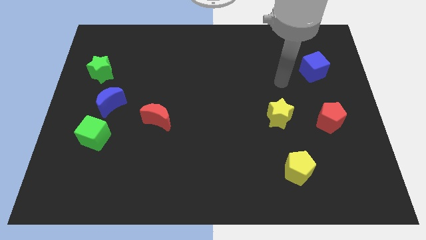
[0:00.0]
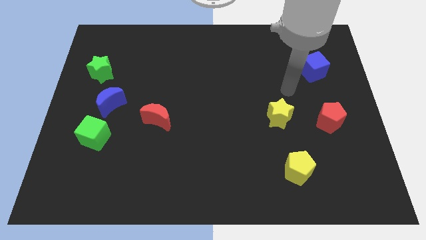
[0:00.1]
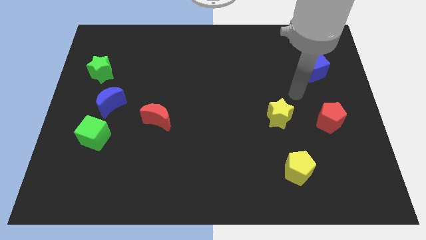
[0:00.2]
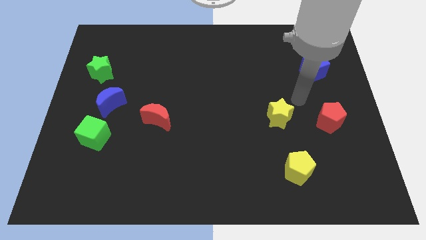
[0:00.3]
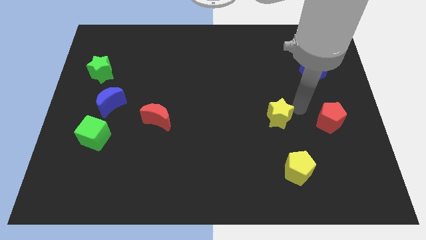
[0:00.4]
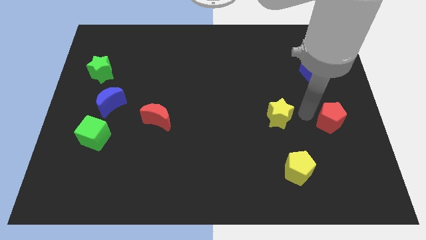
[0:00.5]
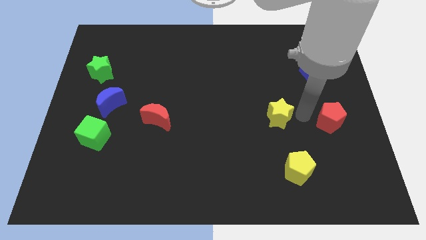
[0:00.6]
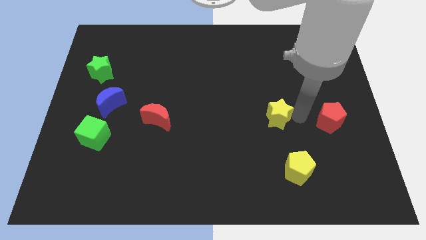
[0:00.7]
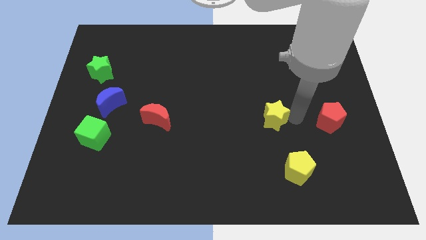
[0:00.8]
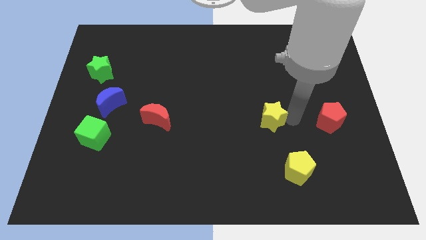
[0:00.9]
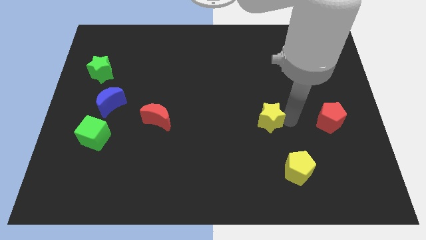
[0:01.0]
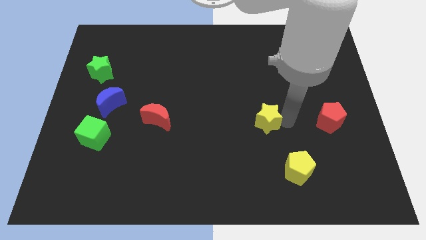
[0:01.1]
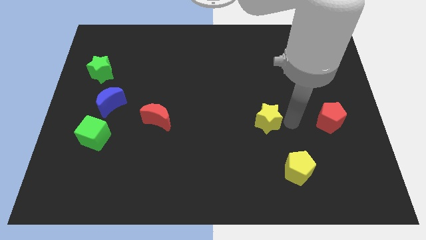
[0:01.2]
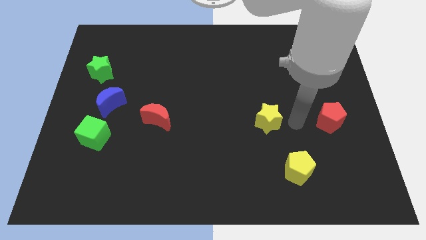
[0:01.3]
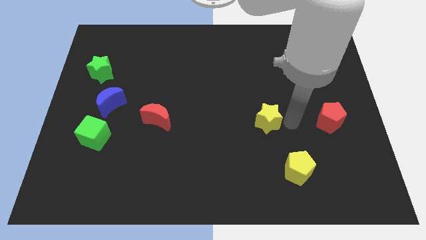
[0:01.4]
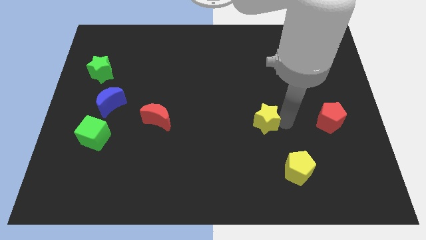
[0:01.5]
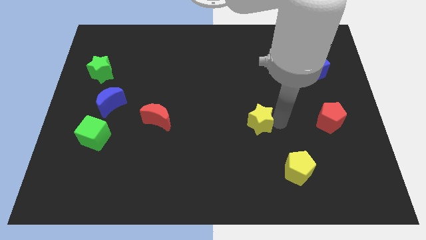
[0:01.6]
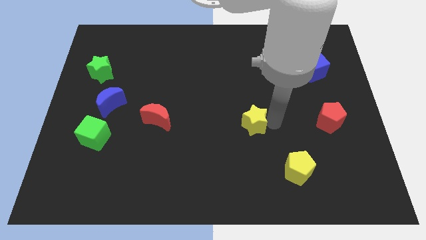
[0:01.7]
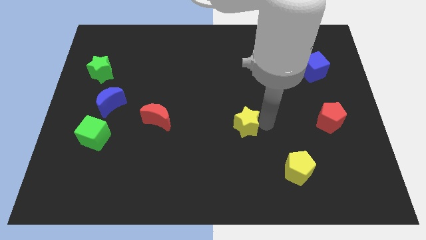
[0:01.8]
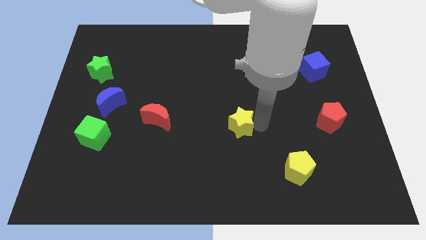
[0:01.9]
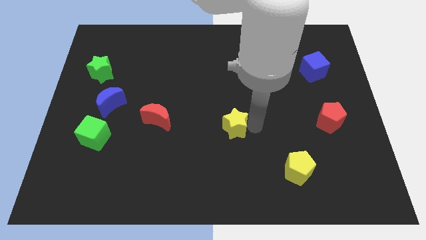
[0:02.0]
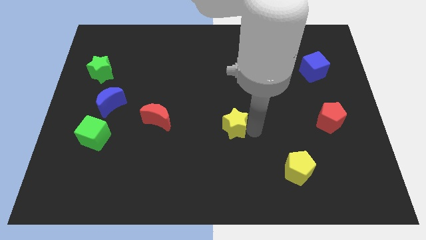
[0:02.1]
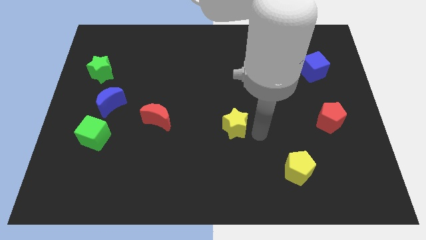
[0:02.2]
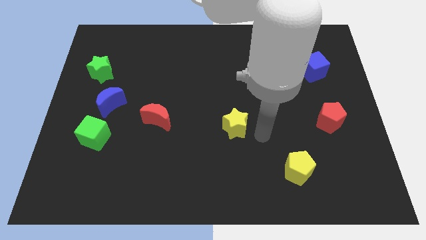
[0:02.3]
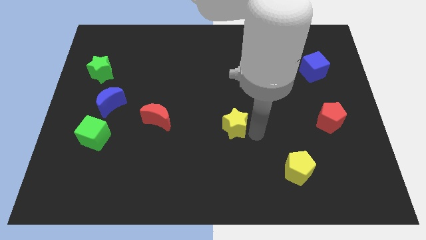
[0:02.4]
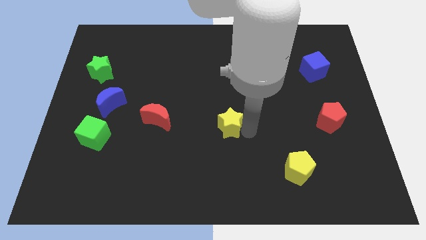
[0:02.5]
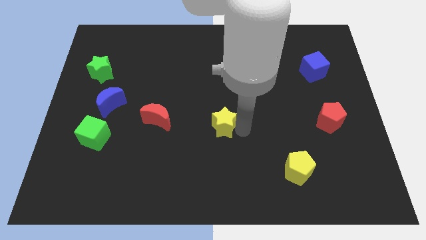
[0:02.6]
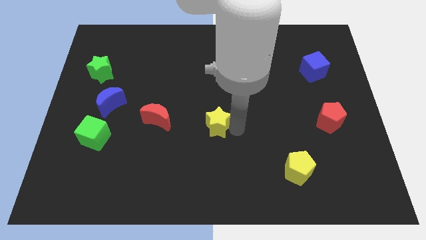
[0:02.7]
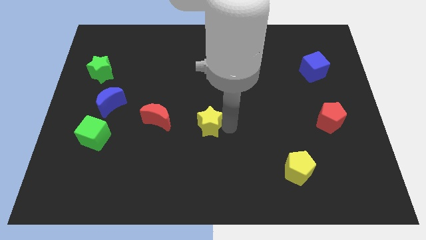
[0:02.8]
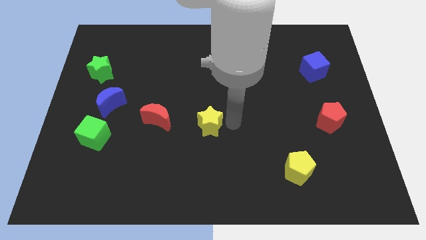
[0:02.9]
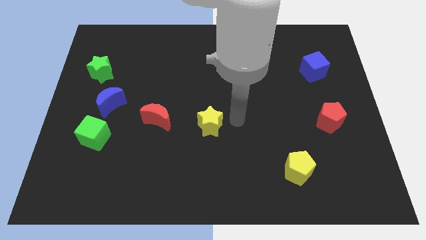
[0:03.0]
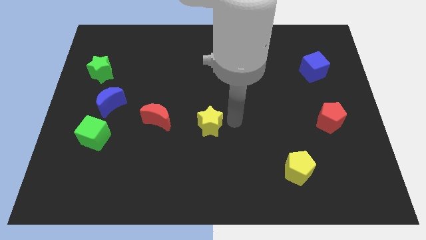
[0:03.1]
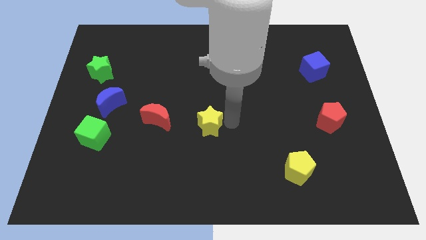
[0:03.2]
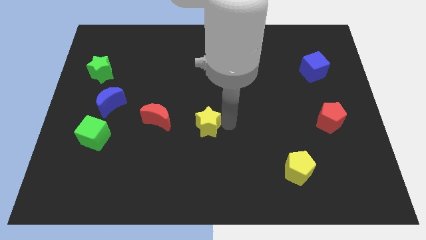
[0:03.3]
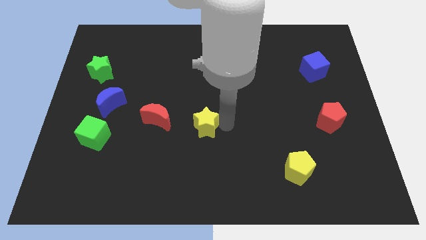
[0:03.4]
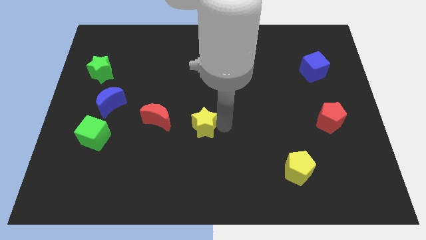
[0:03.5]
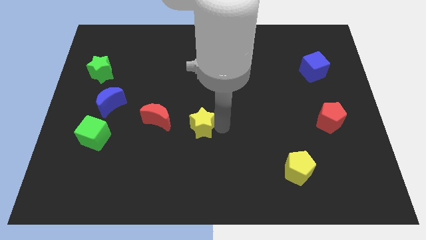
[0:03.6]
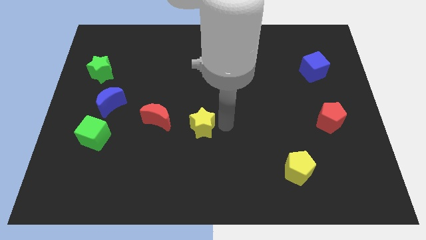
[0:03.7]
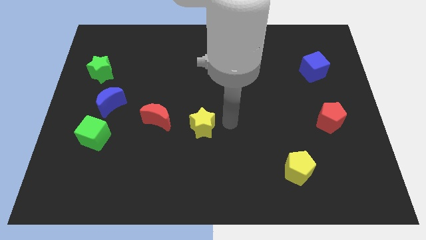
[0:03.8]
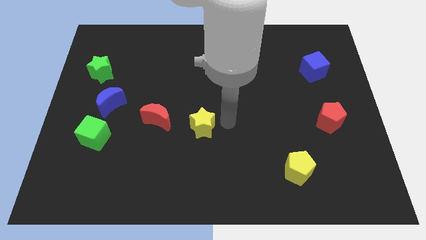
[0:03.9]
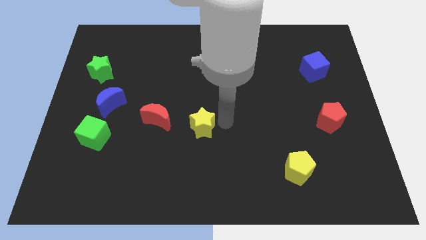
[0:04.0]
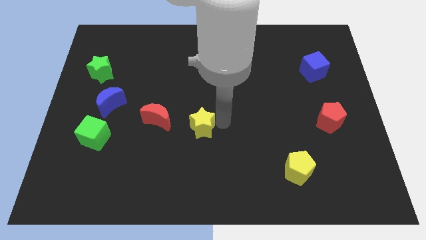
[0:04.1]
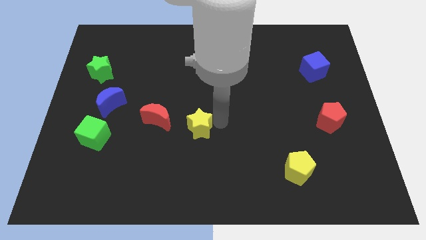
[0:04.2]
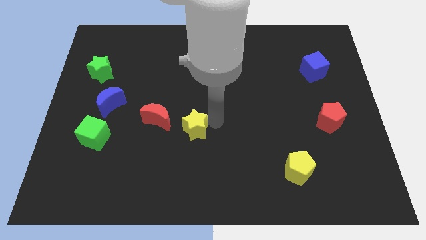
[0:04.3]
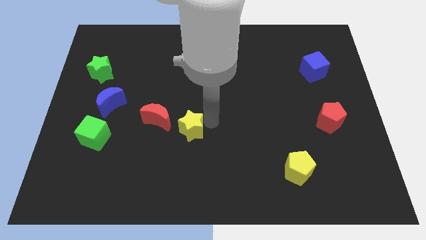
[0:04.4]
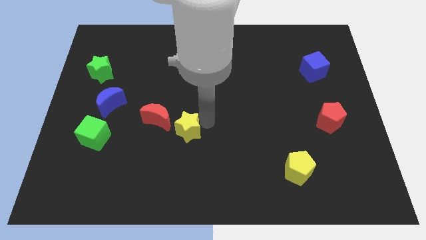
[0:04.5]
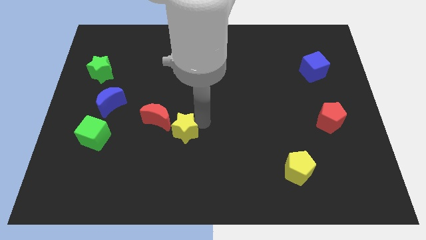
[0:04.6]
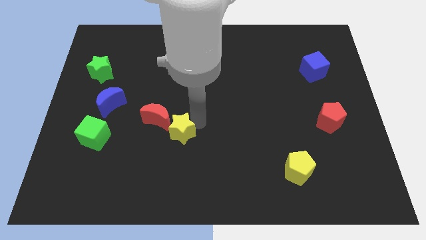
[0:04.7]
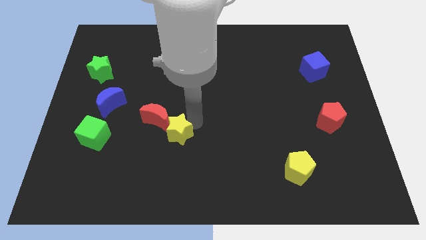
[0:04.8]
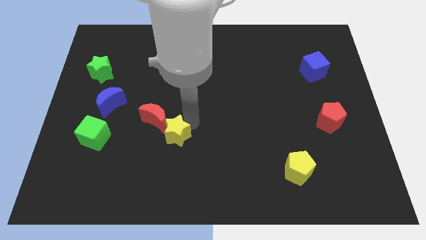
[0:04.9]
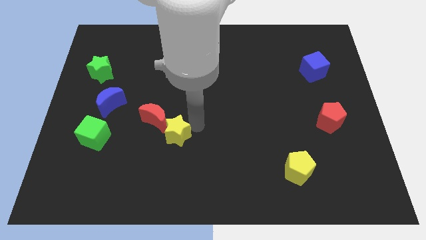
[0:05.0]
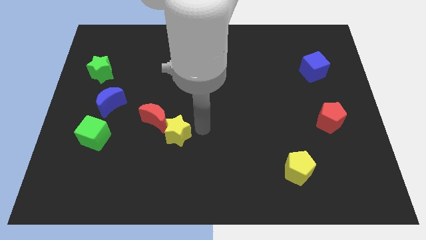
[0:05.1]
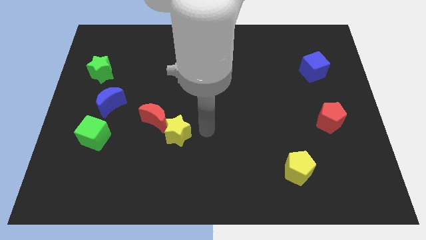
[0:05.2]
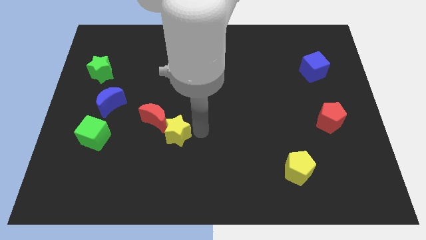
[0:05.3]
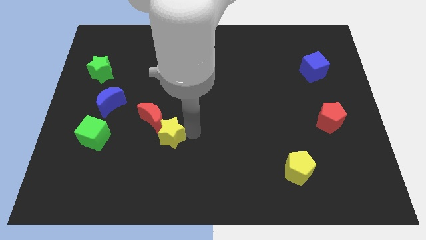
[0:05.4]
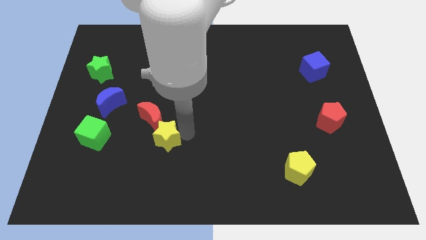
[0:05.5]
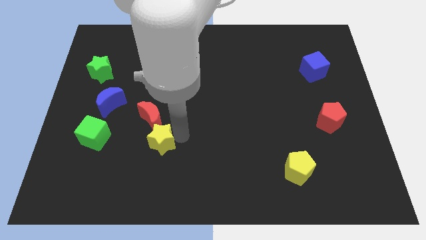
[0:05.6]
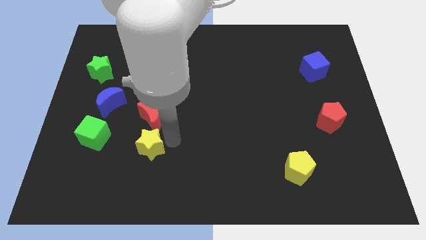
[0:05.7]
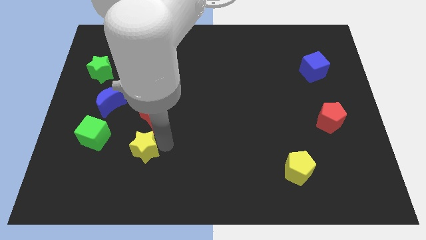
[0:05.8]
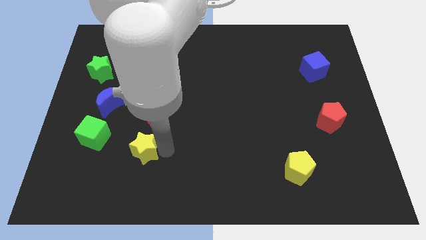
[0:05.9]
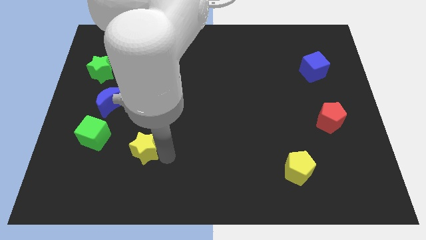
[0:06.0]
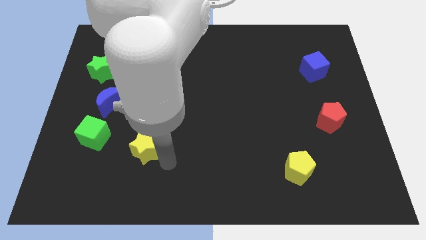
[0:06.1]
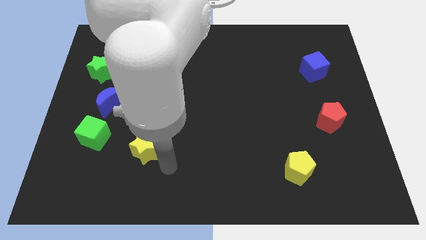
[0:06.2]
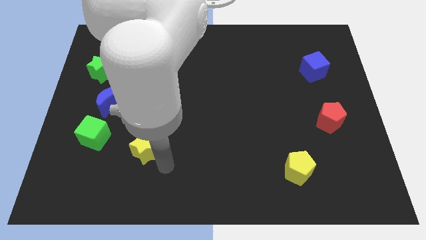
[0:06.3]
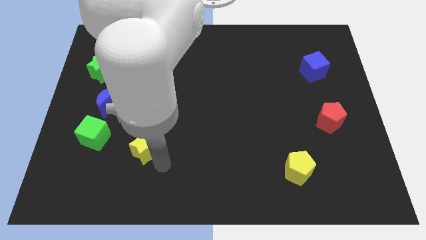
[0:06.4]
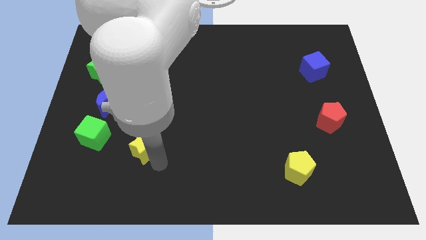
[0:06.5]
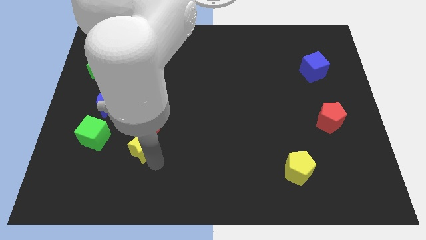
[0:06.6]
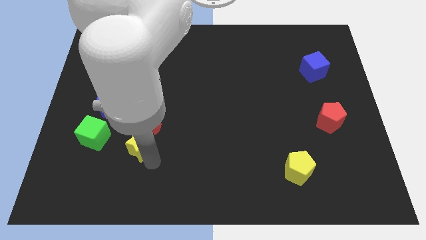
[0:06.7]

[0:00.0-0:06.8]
move the yellow star diagonally down and to the left of the red moon

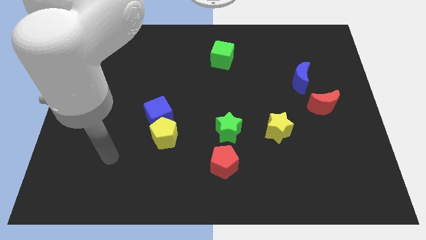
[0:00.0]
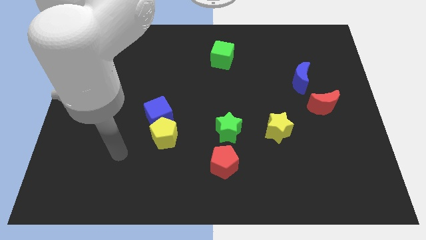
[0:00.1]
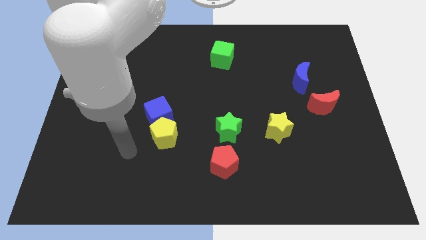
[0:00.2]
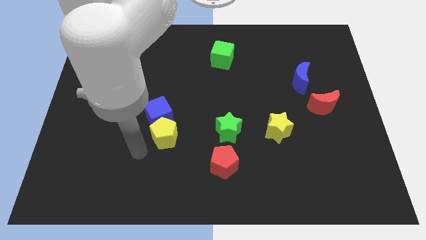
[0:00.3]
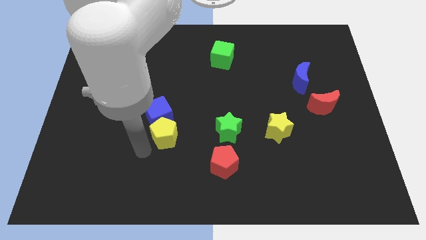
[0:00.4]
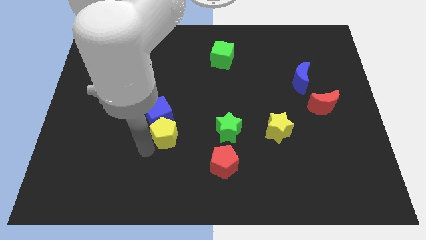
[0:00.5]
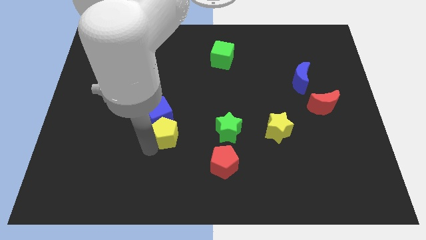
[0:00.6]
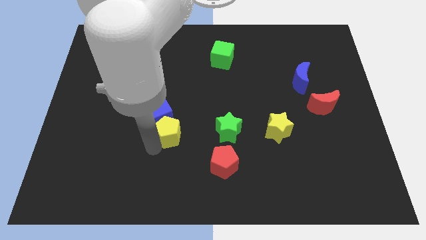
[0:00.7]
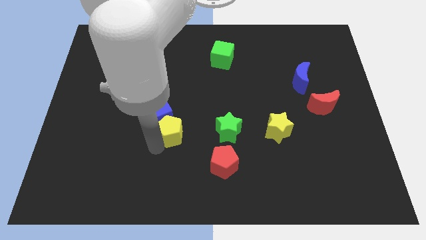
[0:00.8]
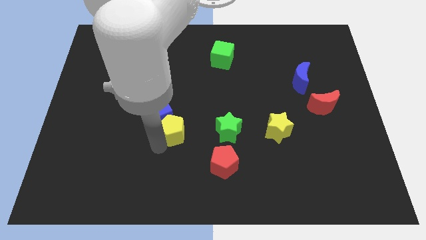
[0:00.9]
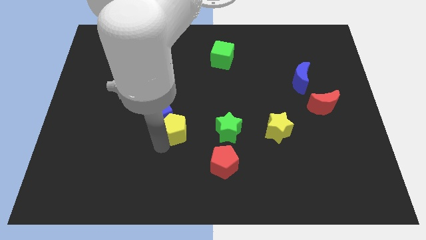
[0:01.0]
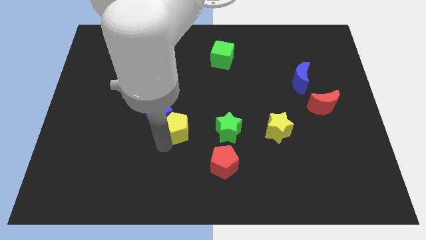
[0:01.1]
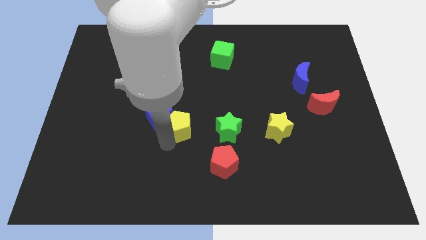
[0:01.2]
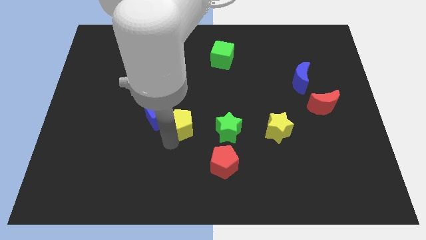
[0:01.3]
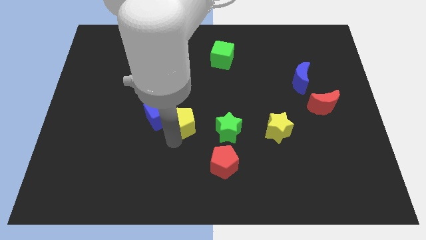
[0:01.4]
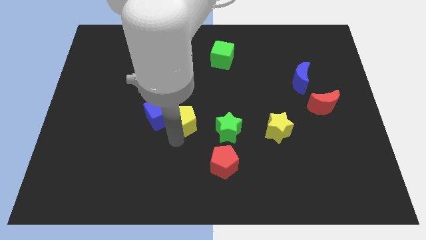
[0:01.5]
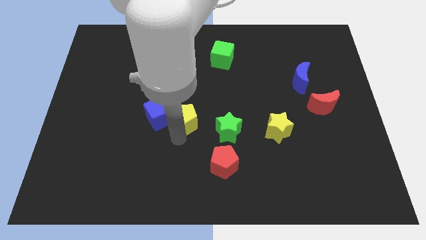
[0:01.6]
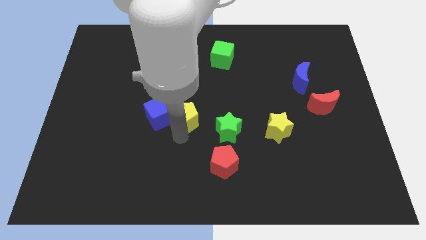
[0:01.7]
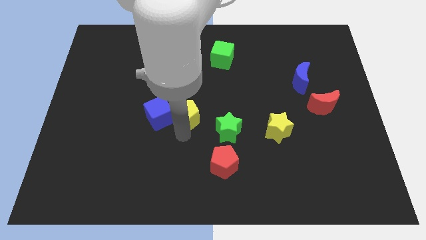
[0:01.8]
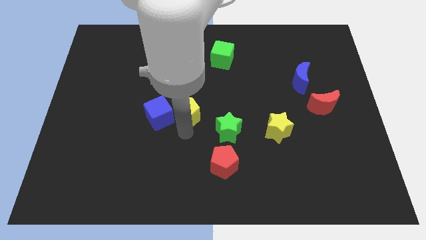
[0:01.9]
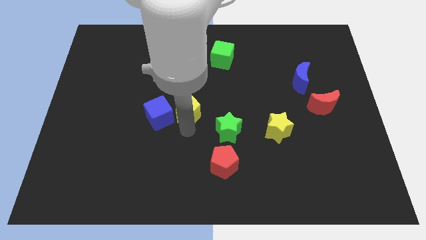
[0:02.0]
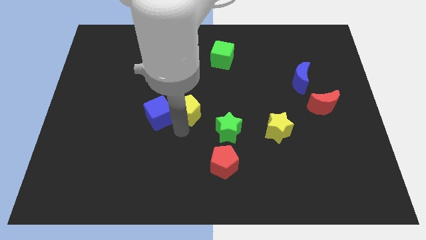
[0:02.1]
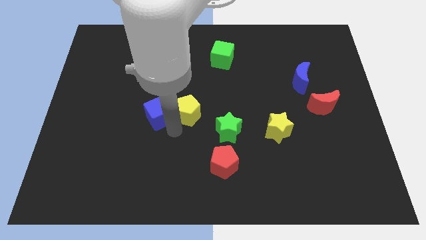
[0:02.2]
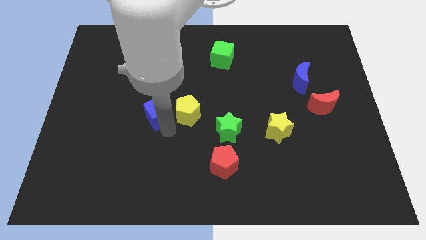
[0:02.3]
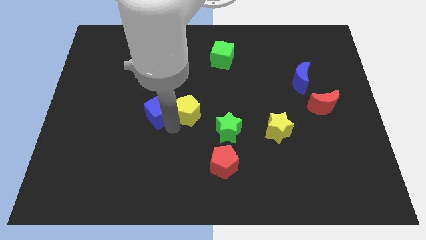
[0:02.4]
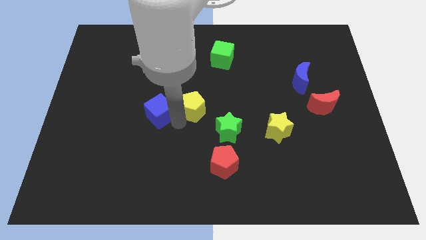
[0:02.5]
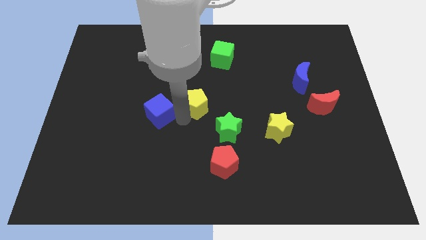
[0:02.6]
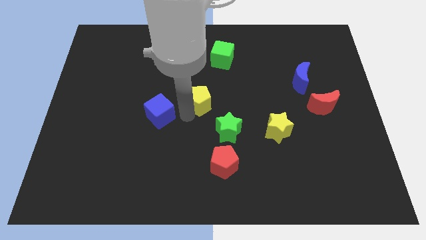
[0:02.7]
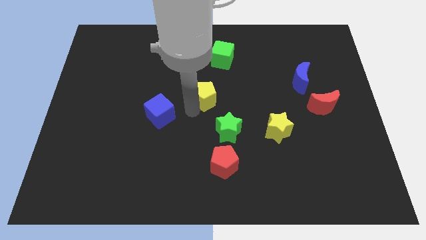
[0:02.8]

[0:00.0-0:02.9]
move the yellow pentagon to the bottom of the green cube
